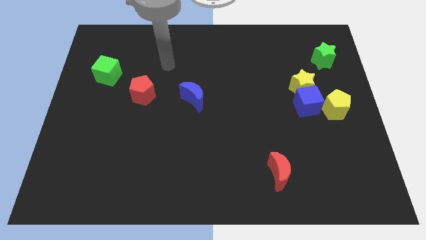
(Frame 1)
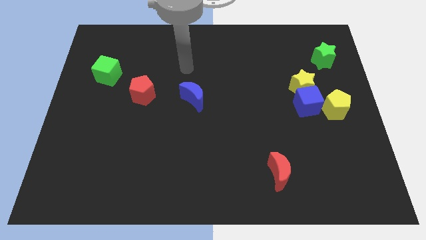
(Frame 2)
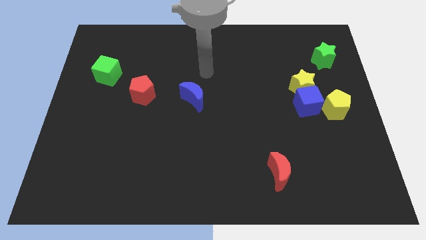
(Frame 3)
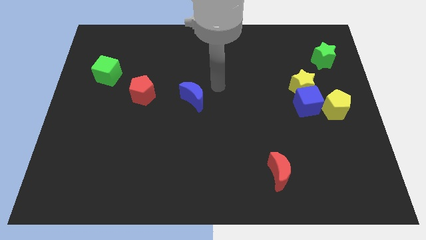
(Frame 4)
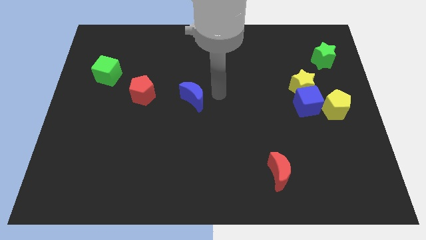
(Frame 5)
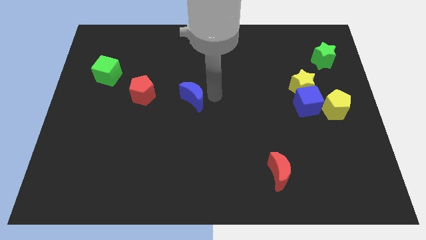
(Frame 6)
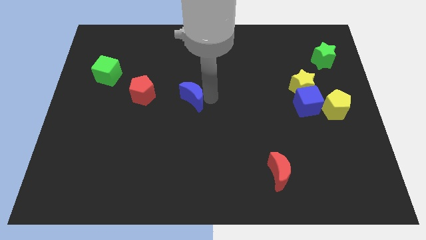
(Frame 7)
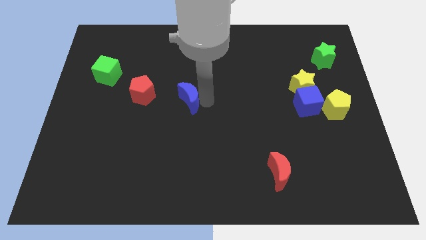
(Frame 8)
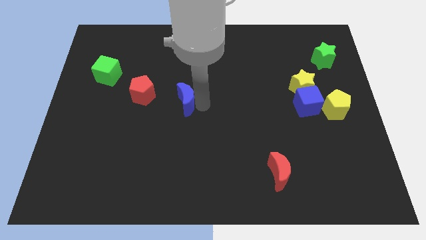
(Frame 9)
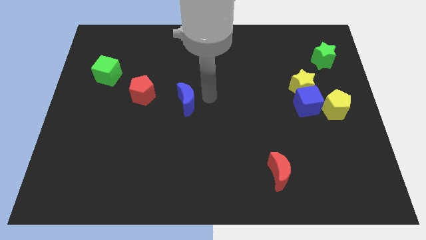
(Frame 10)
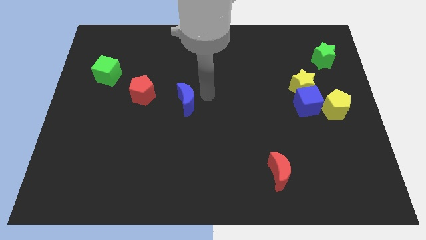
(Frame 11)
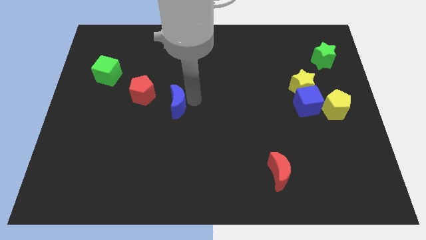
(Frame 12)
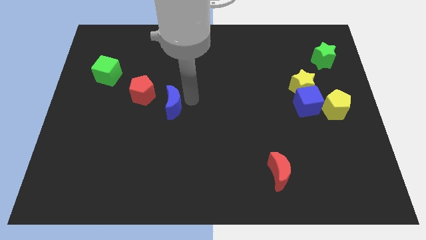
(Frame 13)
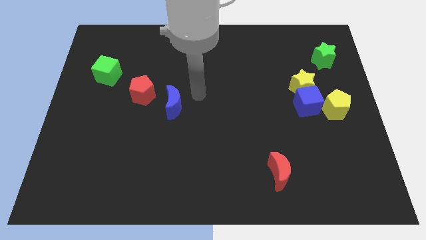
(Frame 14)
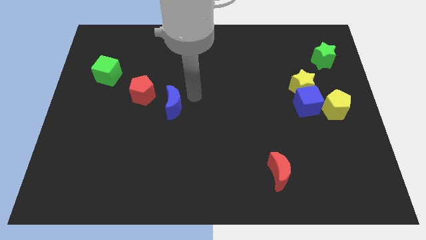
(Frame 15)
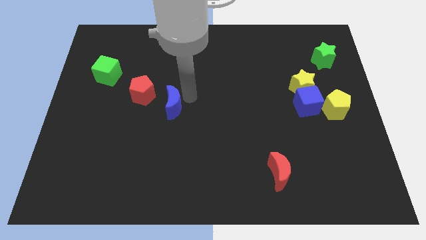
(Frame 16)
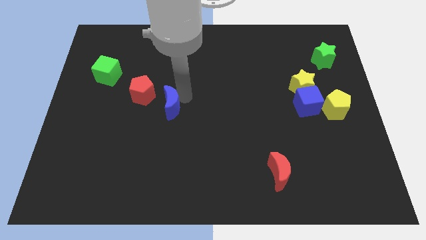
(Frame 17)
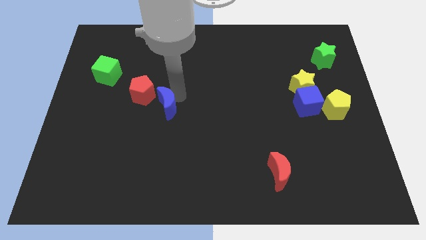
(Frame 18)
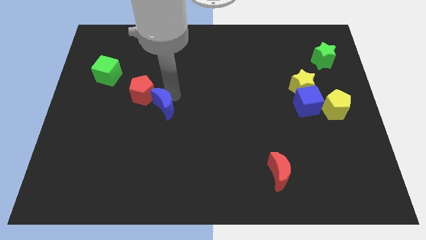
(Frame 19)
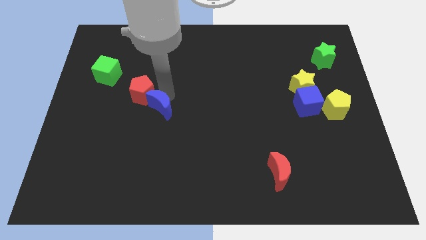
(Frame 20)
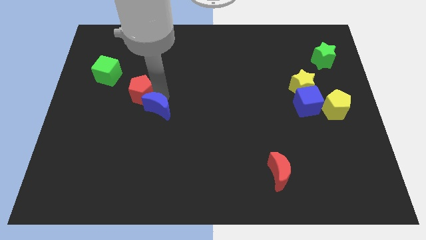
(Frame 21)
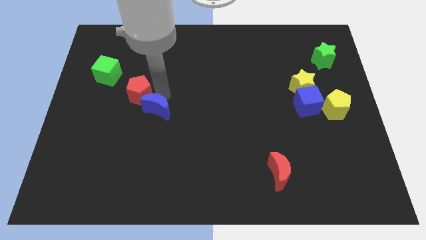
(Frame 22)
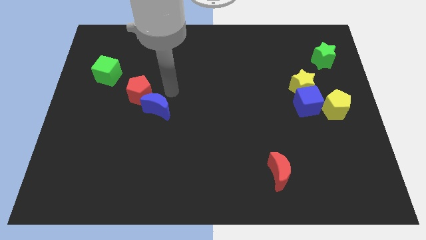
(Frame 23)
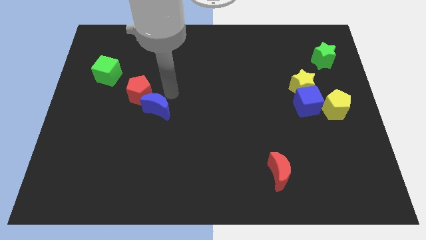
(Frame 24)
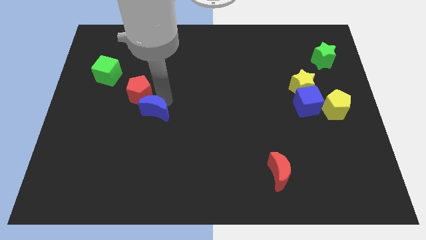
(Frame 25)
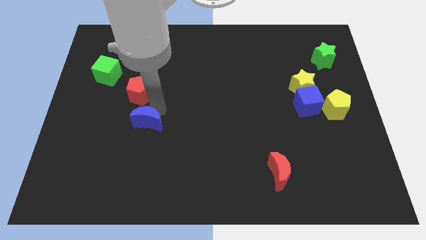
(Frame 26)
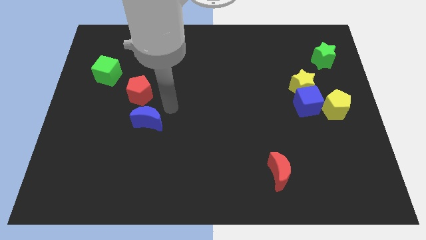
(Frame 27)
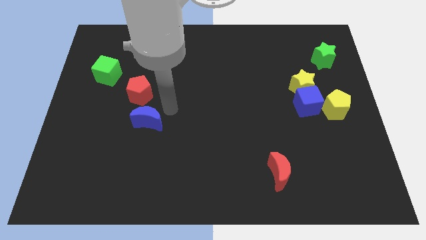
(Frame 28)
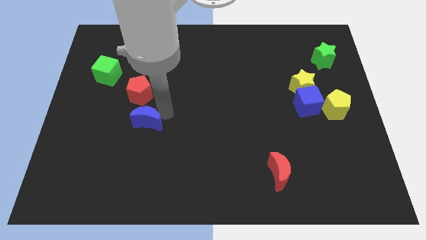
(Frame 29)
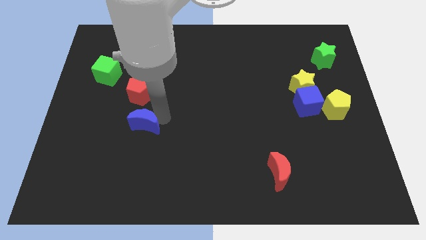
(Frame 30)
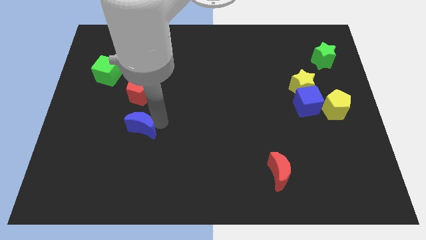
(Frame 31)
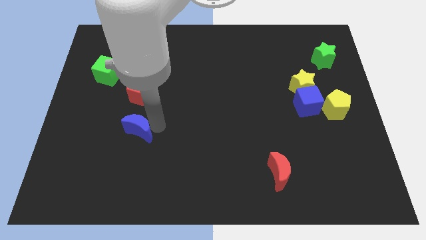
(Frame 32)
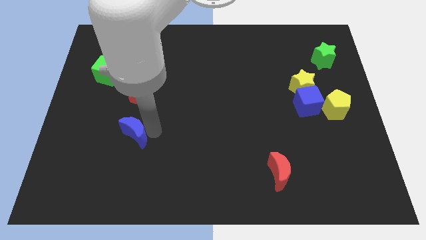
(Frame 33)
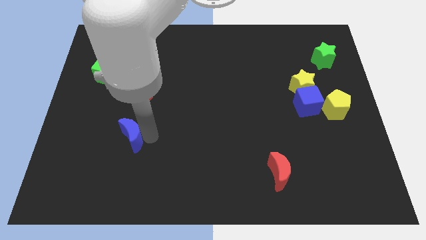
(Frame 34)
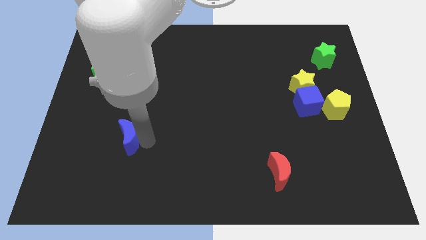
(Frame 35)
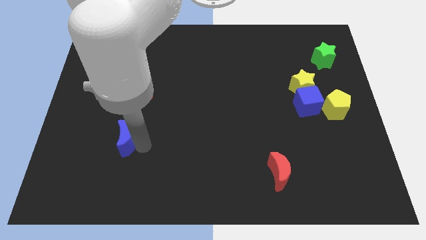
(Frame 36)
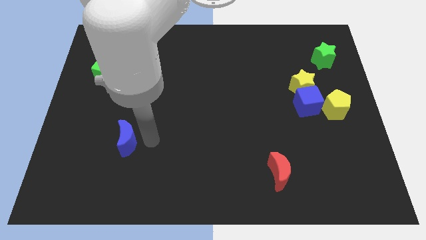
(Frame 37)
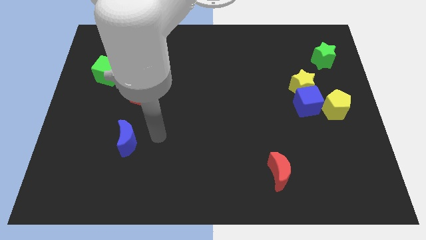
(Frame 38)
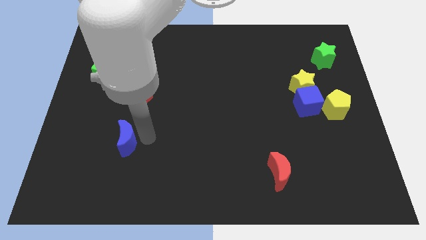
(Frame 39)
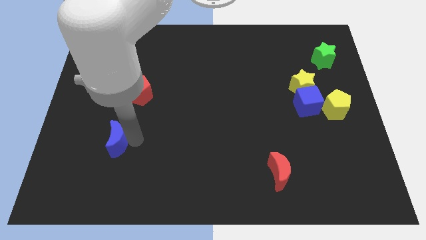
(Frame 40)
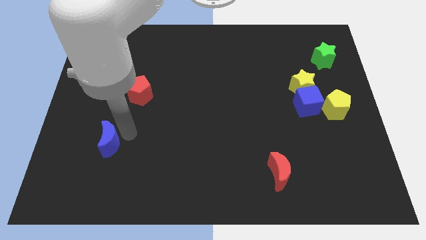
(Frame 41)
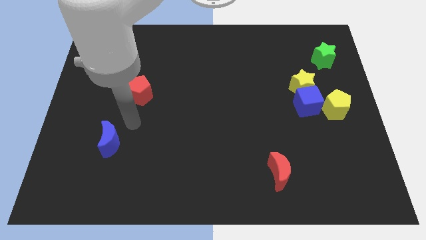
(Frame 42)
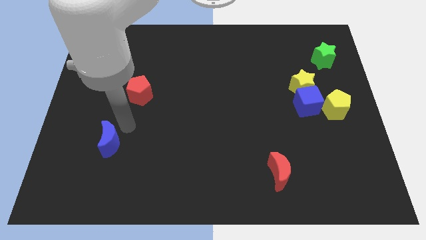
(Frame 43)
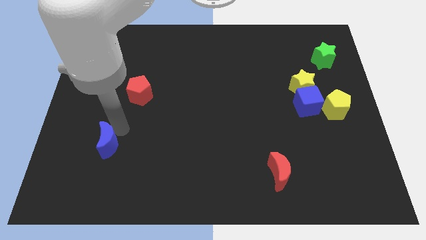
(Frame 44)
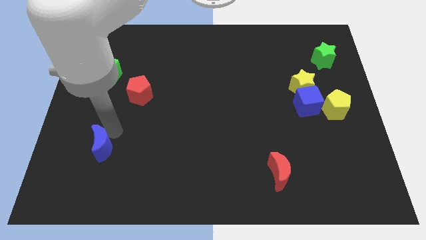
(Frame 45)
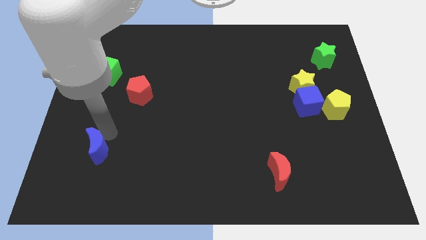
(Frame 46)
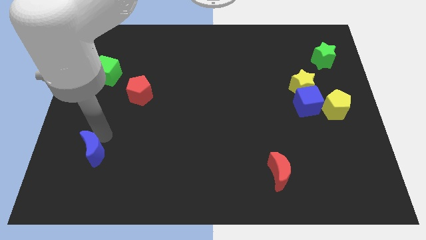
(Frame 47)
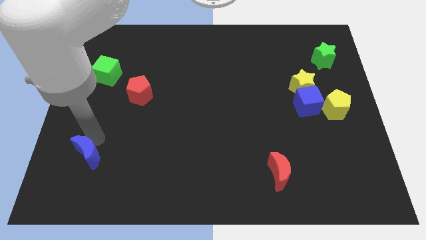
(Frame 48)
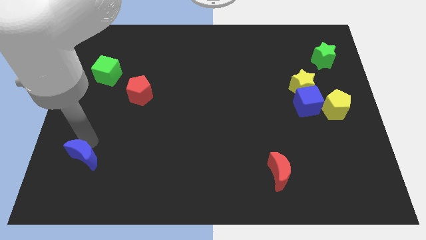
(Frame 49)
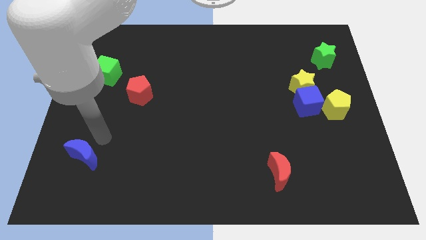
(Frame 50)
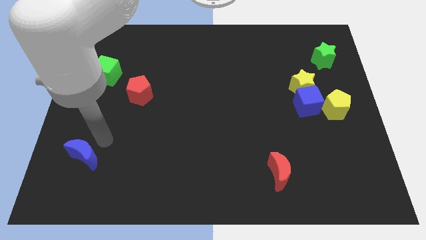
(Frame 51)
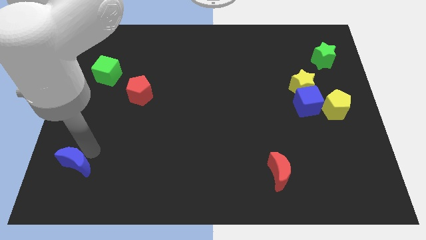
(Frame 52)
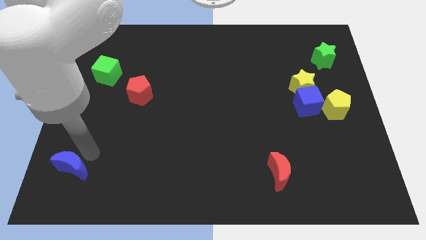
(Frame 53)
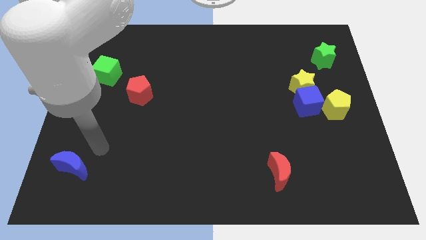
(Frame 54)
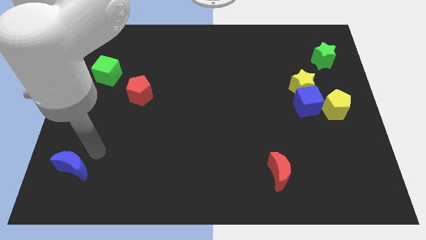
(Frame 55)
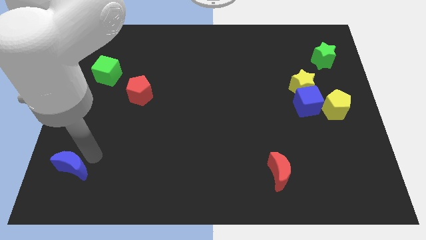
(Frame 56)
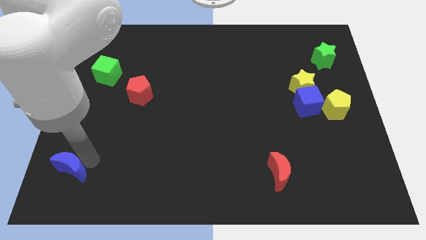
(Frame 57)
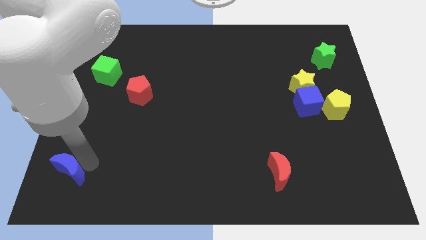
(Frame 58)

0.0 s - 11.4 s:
put the blue moon to the bottom left corner
